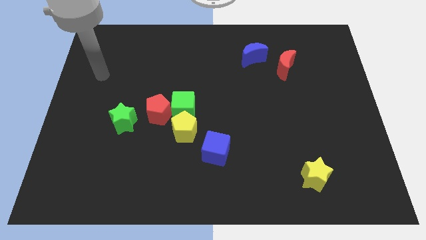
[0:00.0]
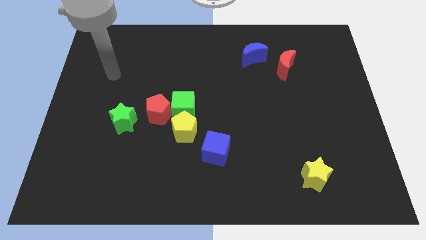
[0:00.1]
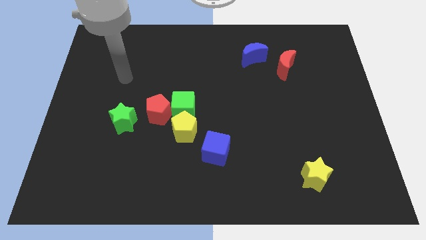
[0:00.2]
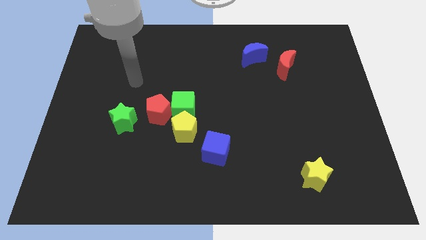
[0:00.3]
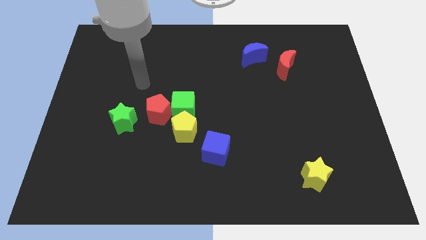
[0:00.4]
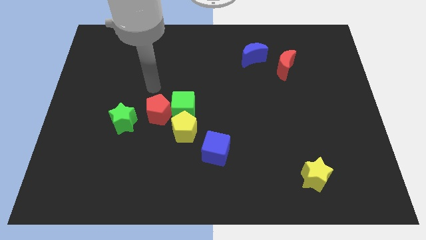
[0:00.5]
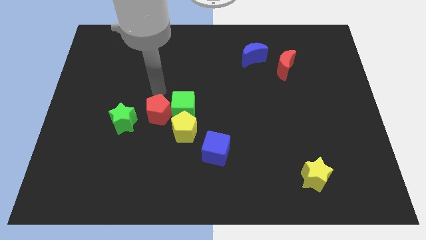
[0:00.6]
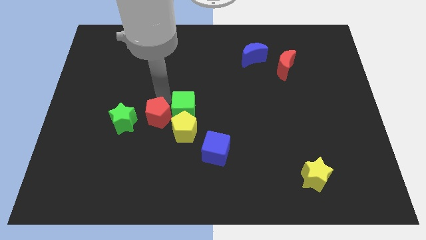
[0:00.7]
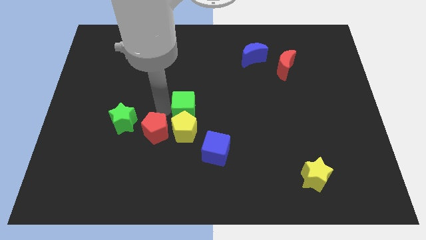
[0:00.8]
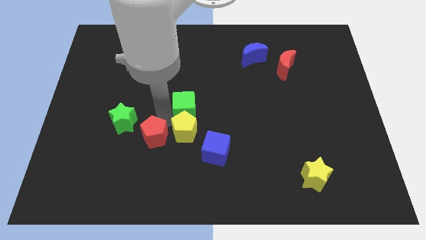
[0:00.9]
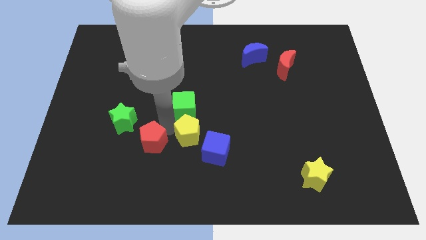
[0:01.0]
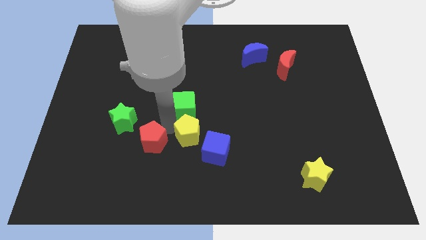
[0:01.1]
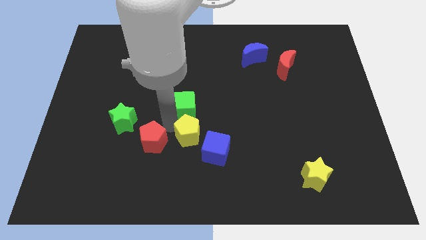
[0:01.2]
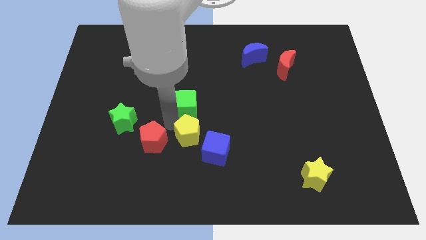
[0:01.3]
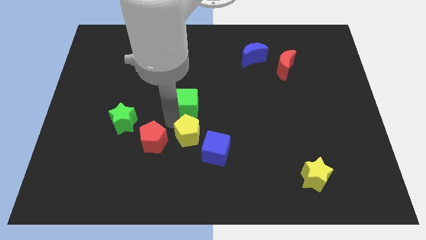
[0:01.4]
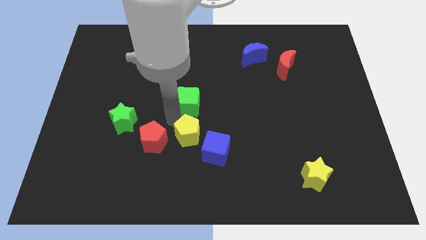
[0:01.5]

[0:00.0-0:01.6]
pull the green cube apart from the red pentagon and yellow pentagon

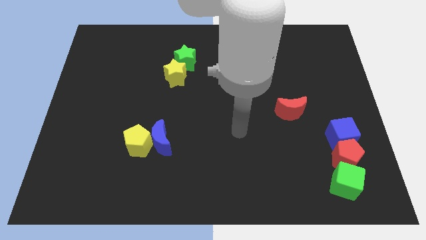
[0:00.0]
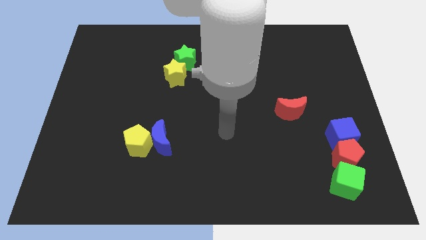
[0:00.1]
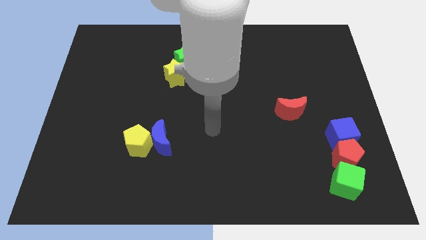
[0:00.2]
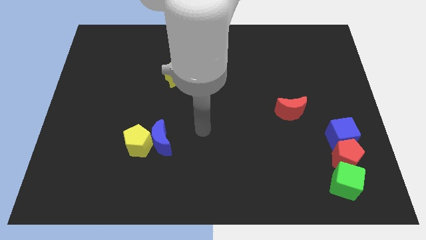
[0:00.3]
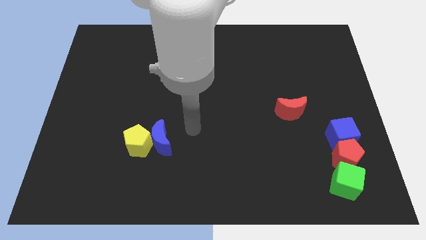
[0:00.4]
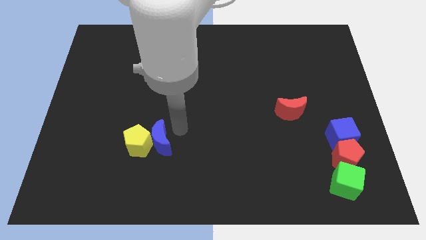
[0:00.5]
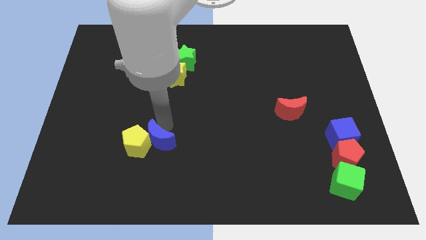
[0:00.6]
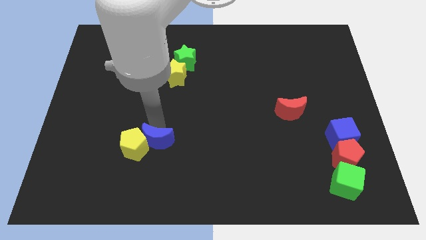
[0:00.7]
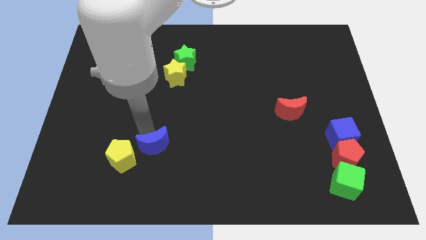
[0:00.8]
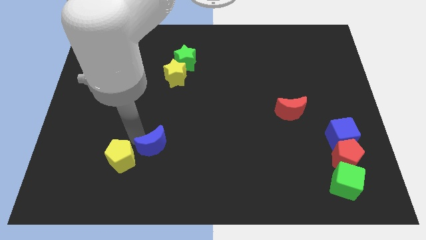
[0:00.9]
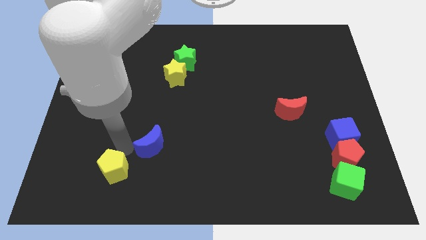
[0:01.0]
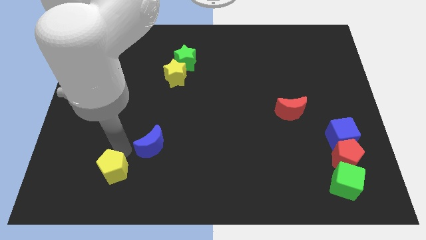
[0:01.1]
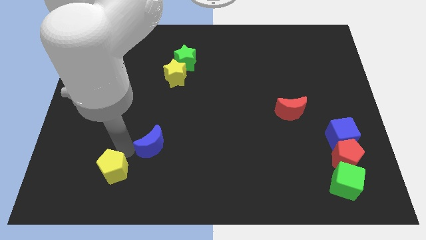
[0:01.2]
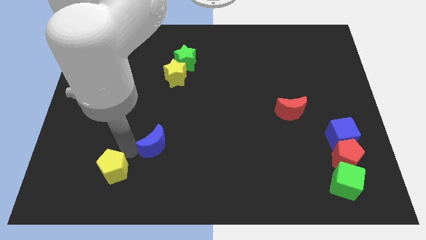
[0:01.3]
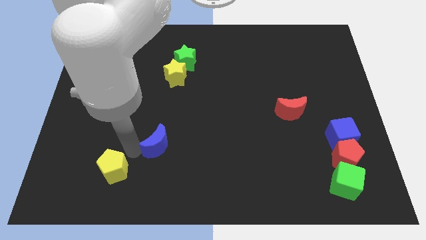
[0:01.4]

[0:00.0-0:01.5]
pull the blue moon apart from the yellow pentagon

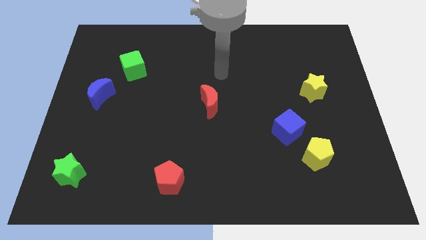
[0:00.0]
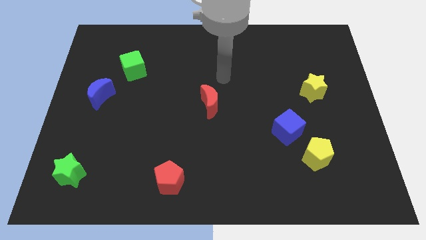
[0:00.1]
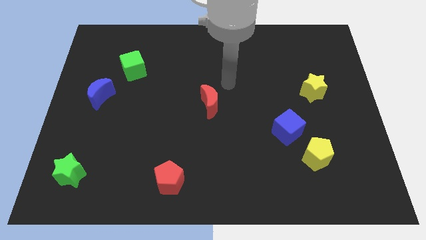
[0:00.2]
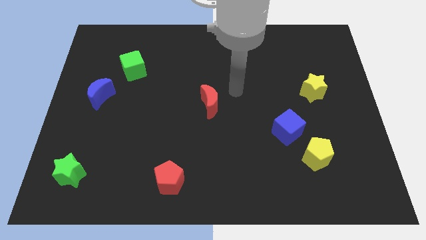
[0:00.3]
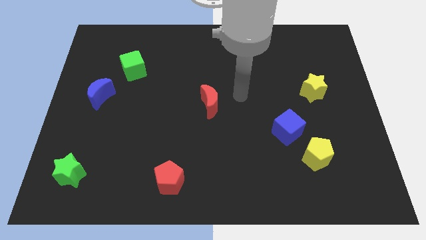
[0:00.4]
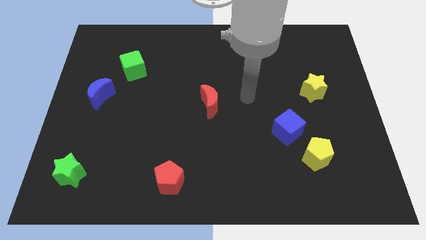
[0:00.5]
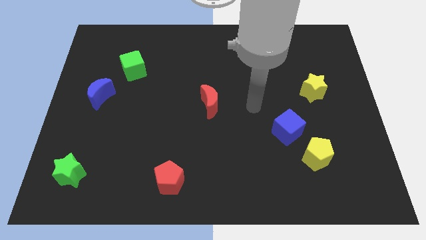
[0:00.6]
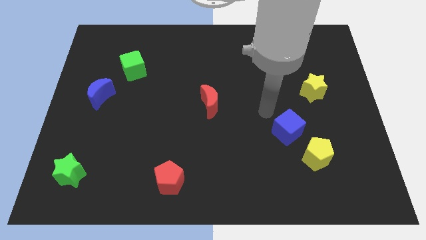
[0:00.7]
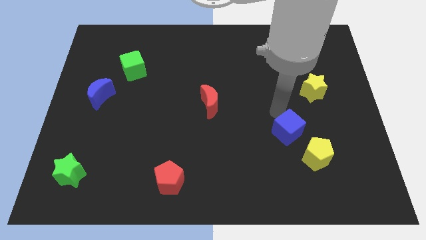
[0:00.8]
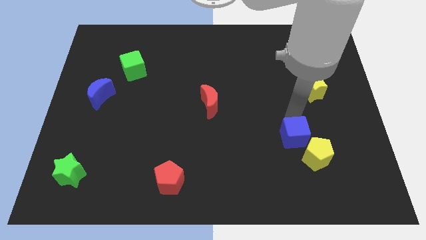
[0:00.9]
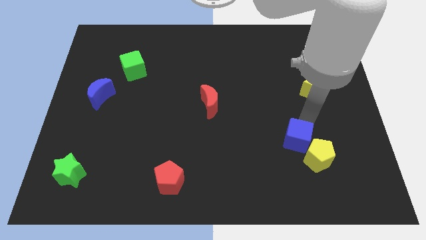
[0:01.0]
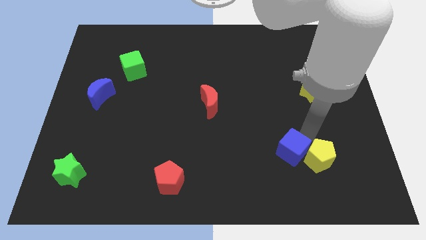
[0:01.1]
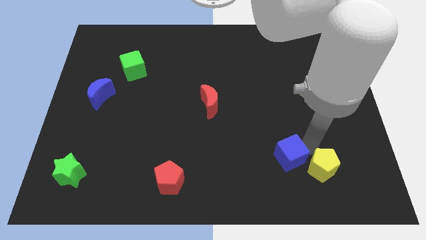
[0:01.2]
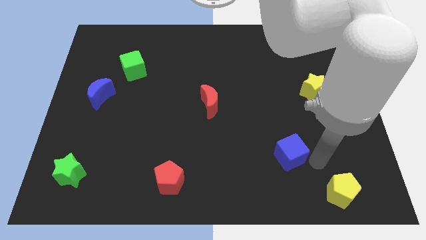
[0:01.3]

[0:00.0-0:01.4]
separate the blue cube from the yellow pentagon

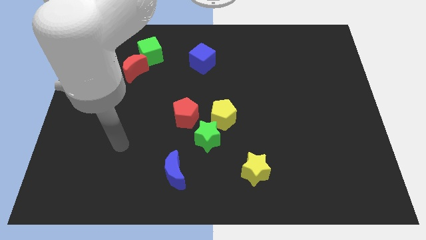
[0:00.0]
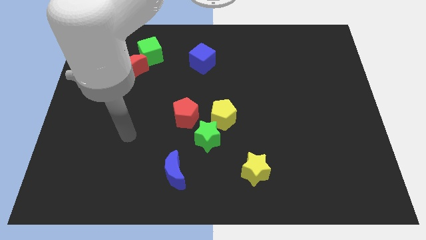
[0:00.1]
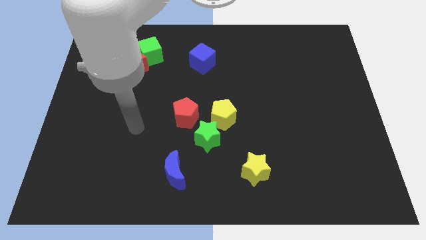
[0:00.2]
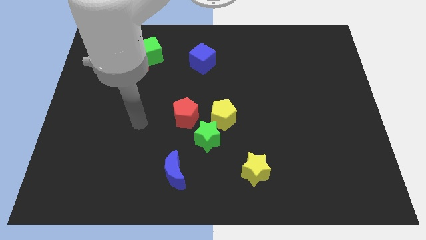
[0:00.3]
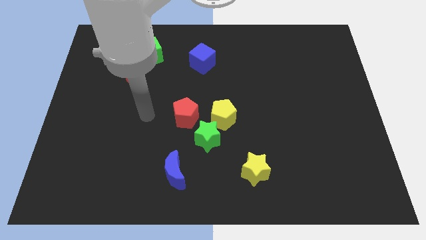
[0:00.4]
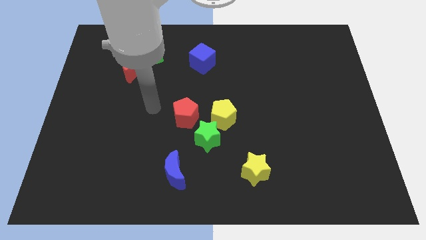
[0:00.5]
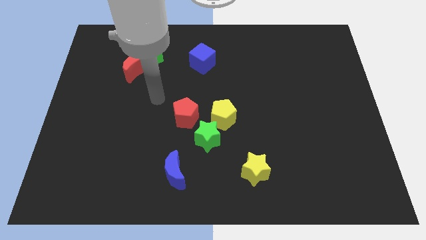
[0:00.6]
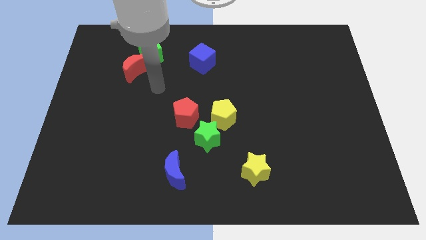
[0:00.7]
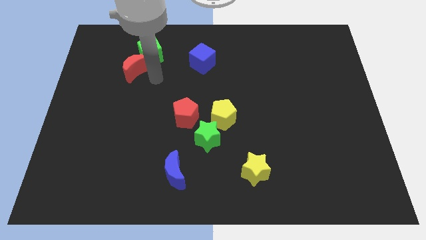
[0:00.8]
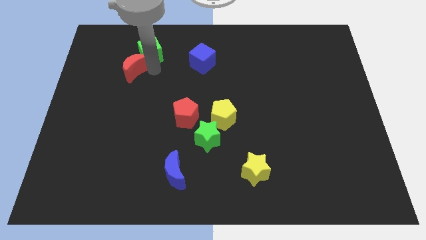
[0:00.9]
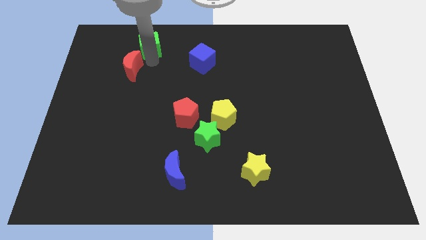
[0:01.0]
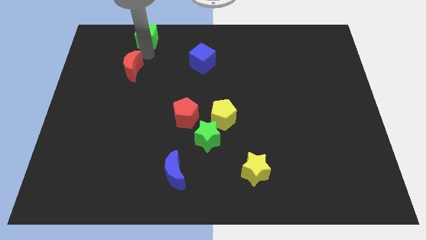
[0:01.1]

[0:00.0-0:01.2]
separate the red moon from the green cube

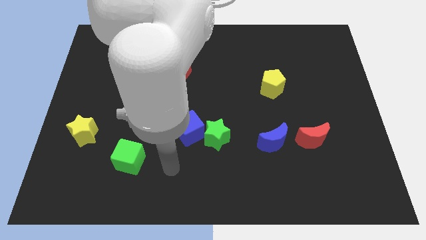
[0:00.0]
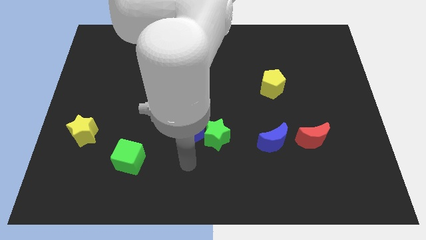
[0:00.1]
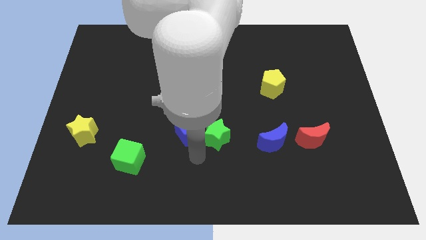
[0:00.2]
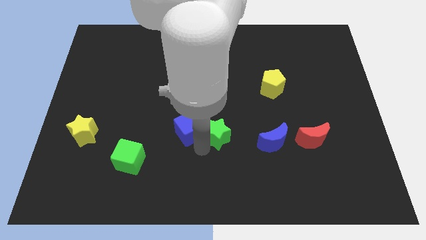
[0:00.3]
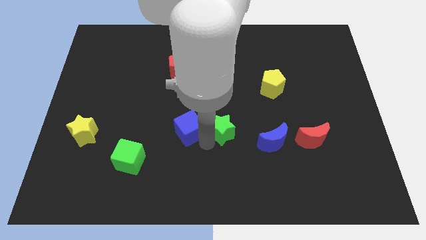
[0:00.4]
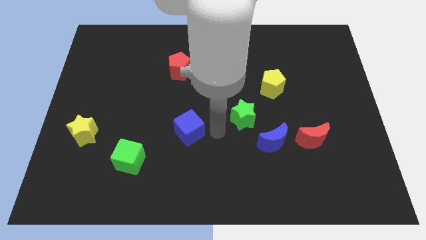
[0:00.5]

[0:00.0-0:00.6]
move the blue cube away from the green star

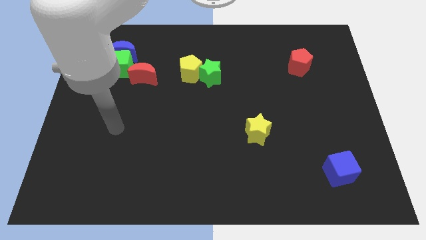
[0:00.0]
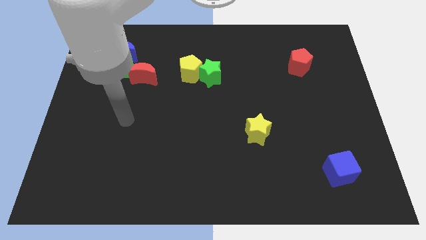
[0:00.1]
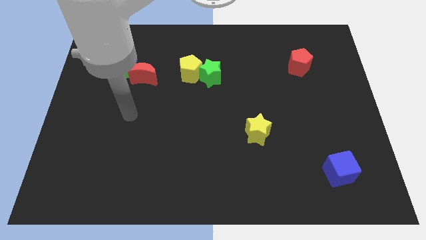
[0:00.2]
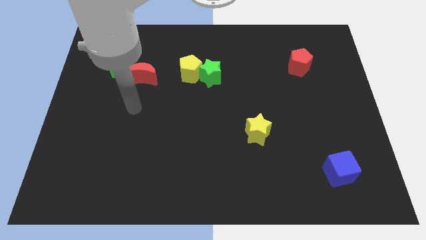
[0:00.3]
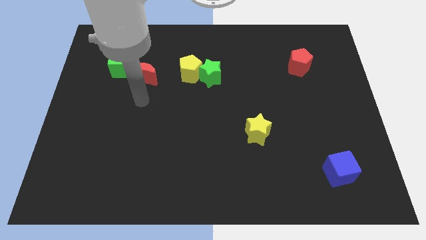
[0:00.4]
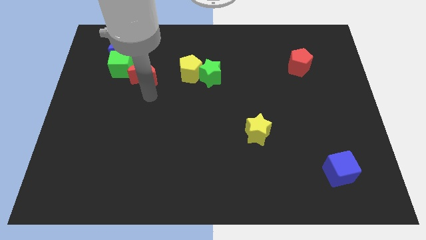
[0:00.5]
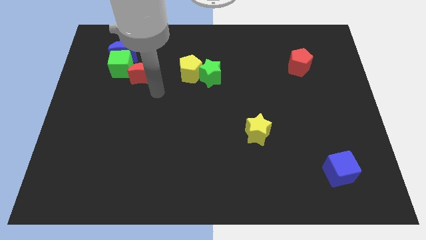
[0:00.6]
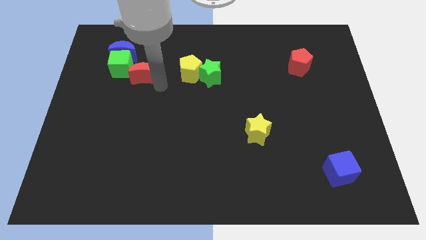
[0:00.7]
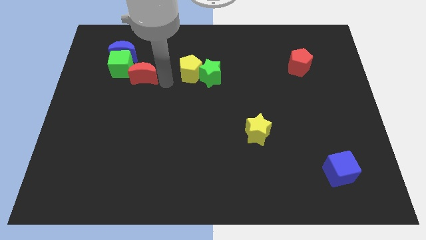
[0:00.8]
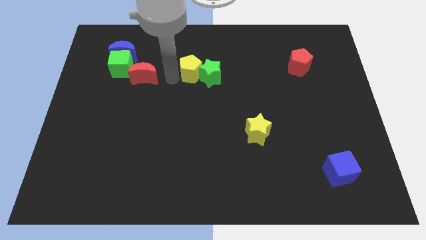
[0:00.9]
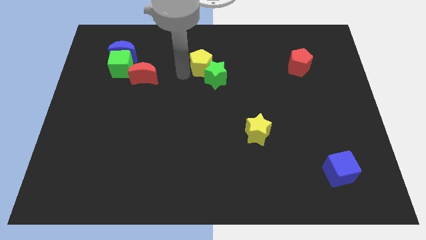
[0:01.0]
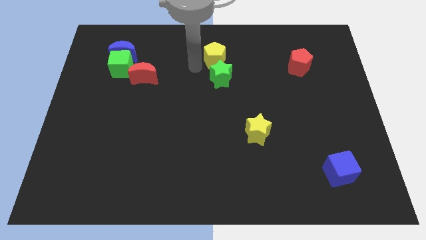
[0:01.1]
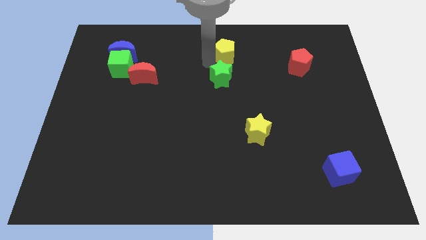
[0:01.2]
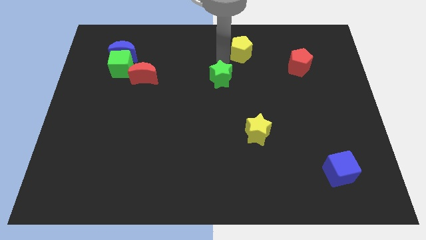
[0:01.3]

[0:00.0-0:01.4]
pull the green star apart from the yellow pentagon

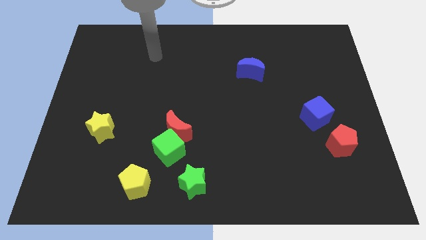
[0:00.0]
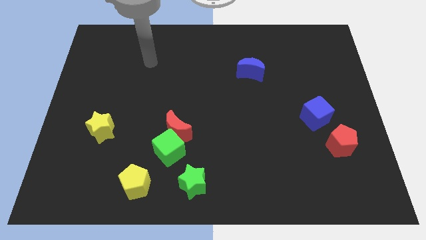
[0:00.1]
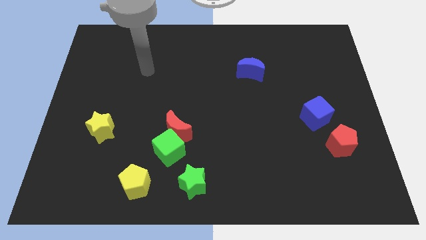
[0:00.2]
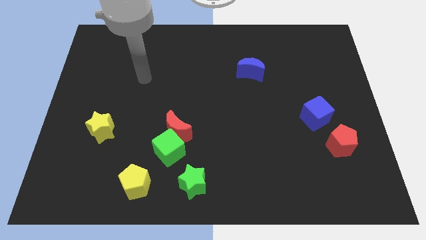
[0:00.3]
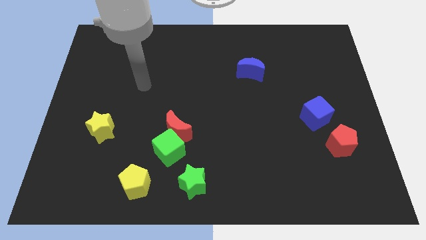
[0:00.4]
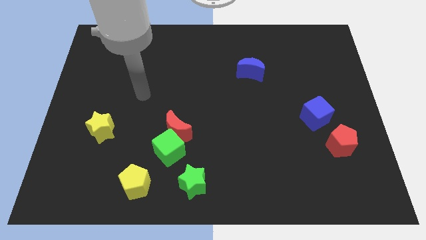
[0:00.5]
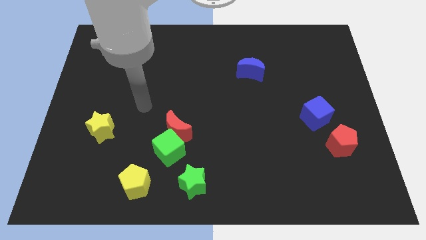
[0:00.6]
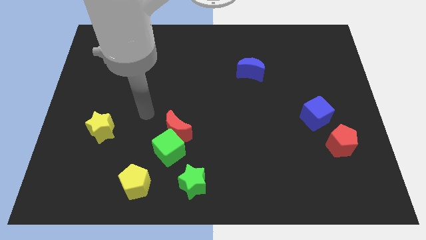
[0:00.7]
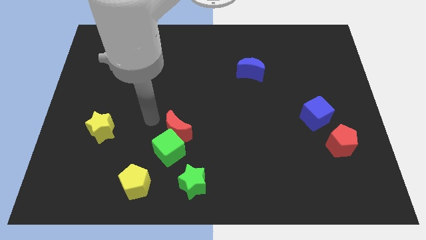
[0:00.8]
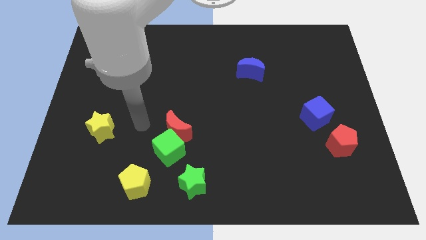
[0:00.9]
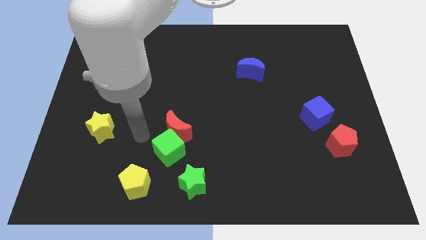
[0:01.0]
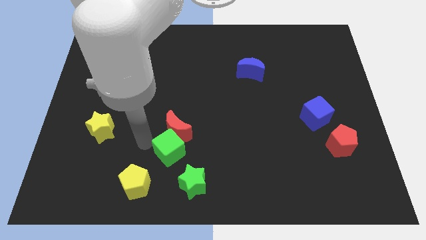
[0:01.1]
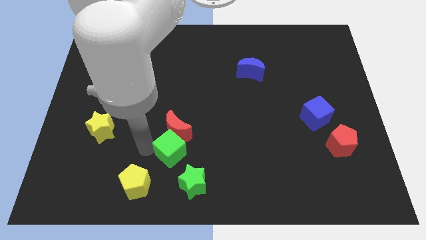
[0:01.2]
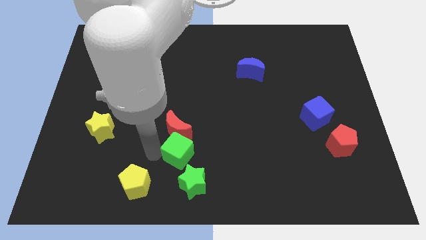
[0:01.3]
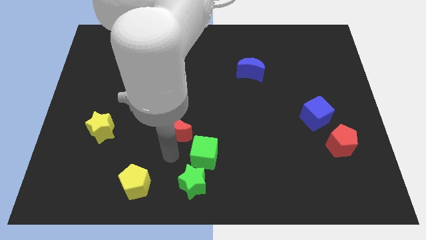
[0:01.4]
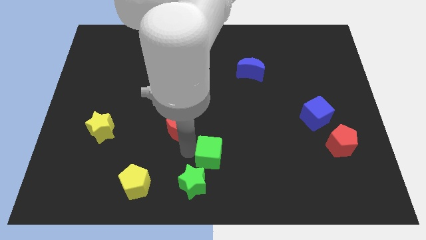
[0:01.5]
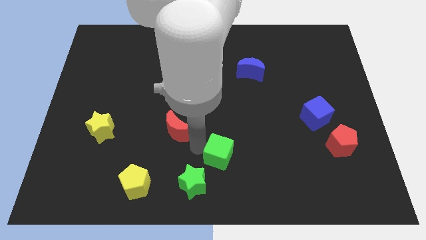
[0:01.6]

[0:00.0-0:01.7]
pull the red moon apart from the green cube
